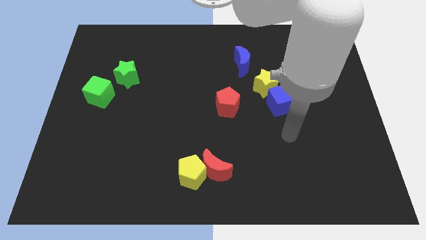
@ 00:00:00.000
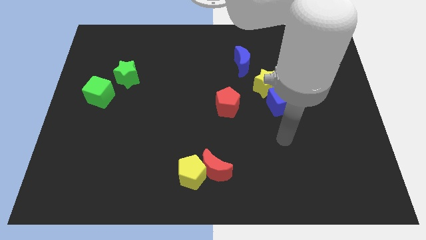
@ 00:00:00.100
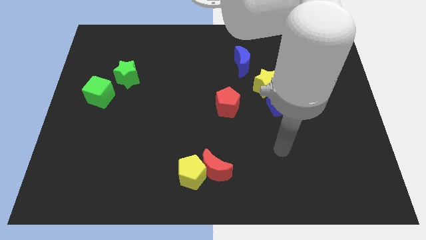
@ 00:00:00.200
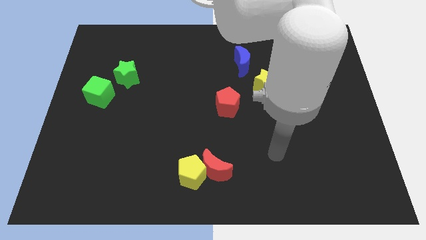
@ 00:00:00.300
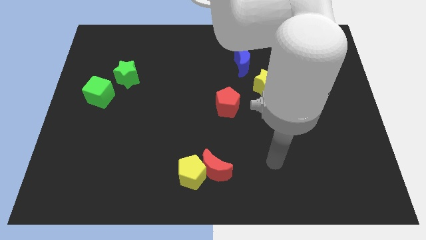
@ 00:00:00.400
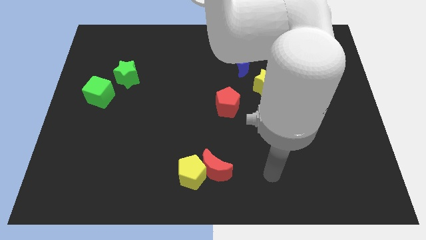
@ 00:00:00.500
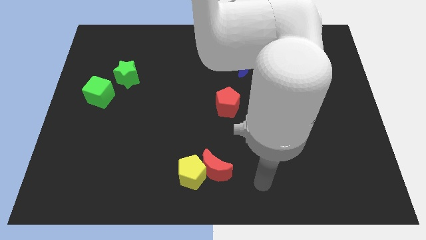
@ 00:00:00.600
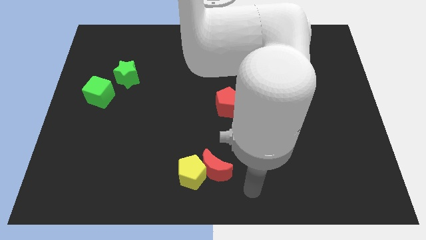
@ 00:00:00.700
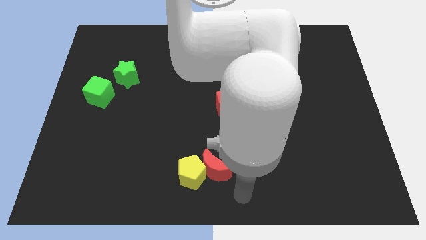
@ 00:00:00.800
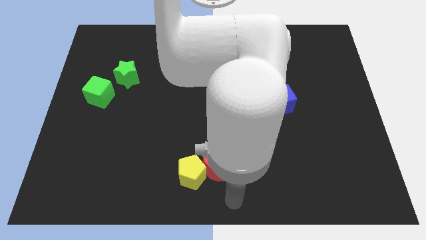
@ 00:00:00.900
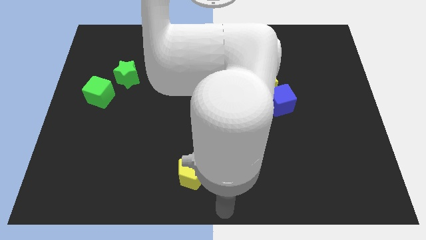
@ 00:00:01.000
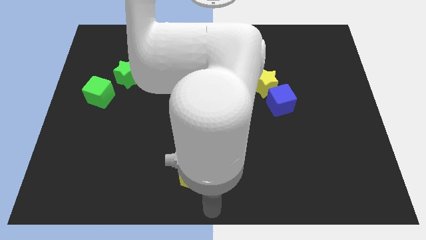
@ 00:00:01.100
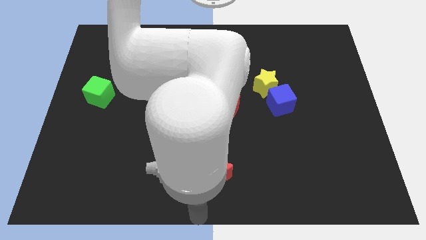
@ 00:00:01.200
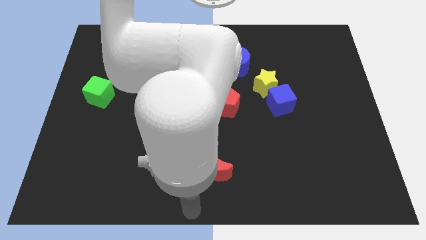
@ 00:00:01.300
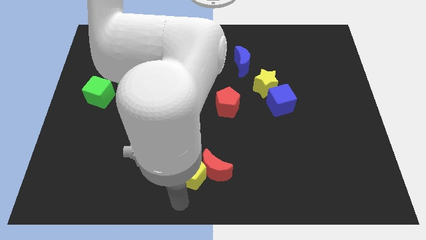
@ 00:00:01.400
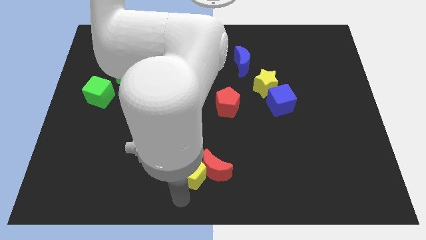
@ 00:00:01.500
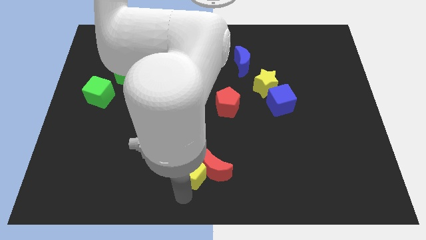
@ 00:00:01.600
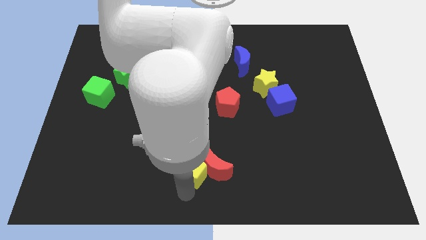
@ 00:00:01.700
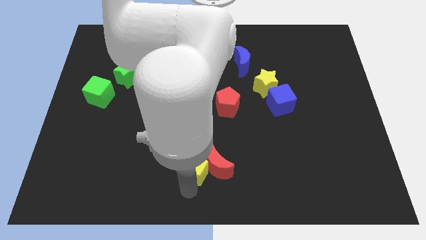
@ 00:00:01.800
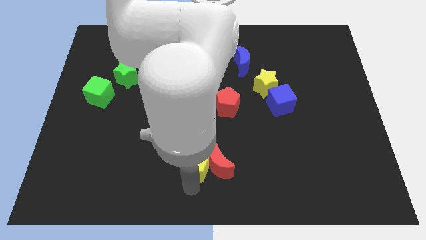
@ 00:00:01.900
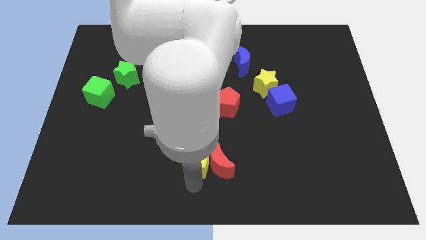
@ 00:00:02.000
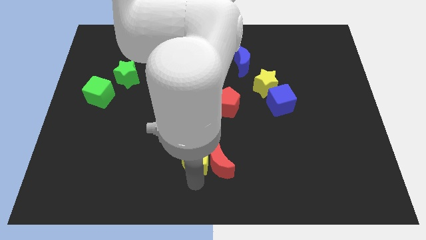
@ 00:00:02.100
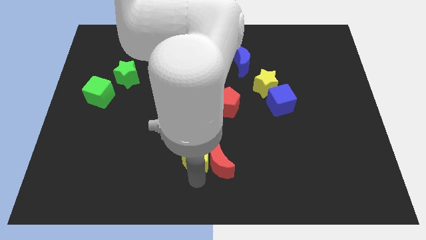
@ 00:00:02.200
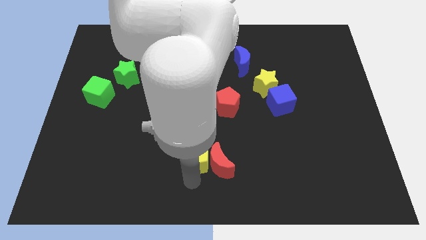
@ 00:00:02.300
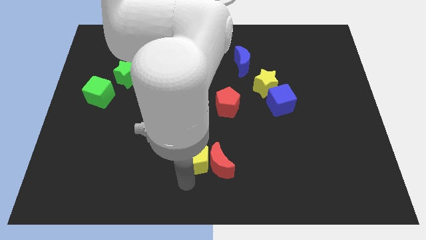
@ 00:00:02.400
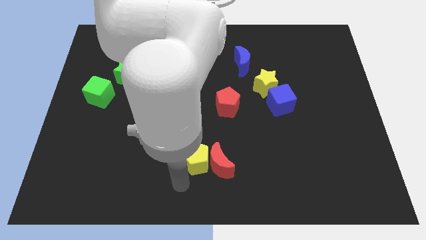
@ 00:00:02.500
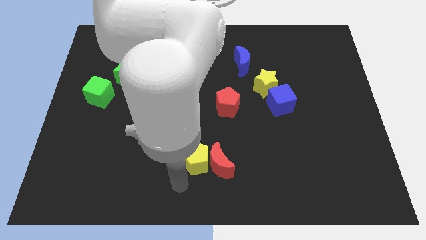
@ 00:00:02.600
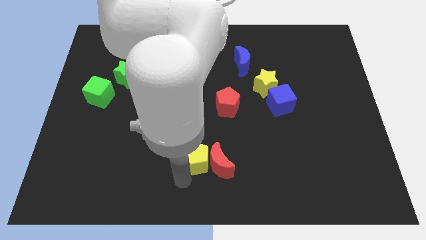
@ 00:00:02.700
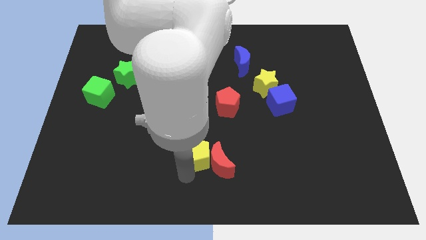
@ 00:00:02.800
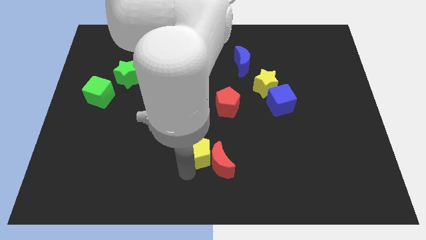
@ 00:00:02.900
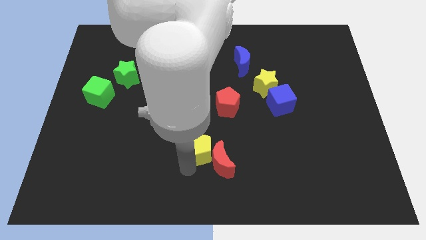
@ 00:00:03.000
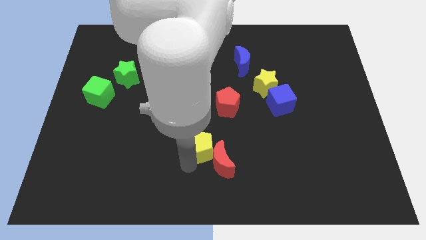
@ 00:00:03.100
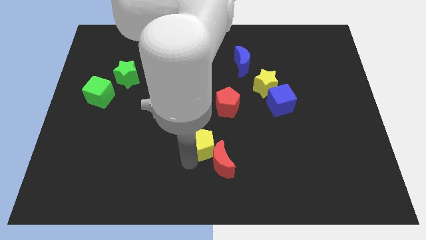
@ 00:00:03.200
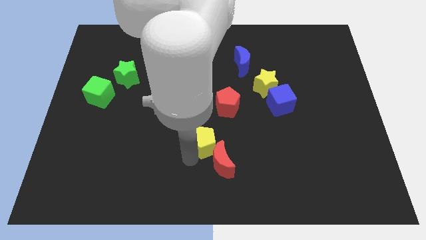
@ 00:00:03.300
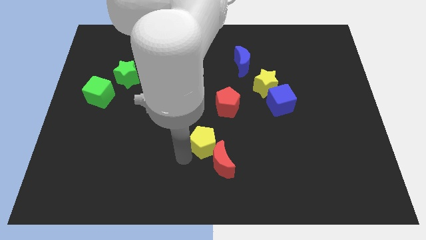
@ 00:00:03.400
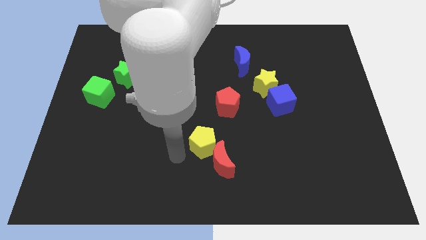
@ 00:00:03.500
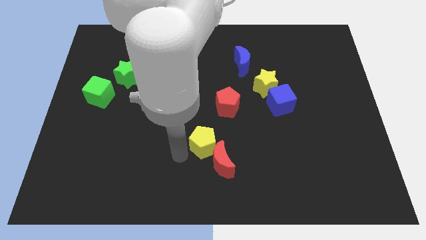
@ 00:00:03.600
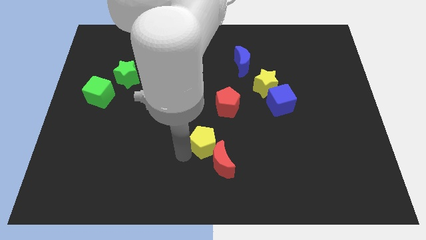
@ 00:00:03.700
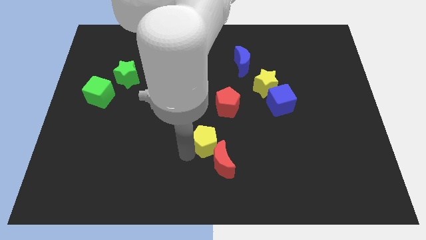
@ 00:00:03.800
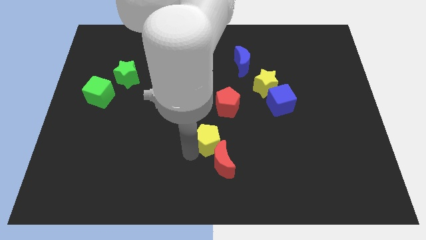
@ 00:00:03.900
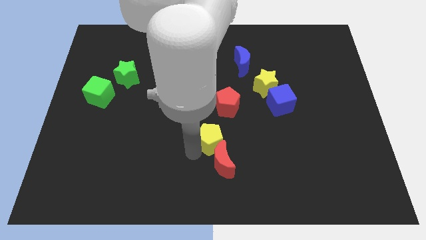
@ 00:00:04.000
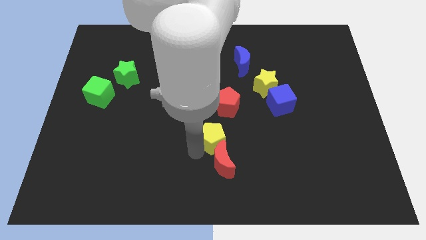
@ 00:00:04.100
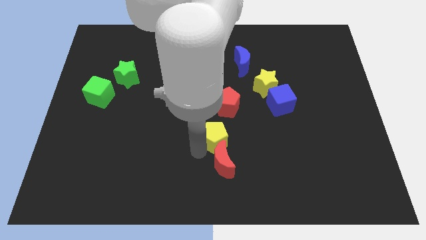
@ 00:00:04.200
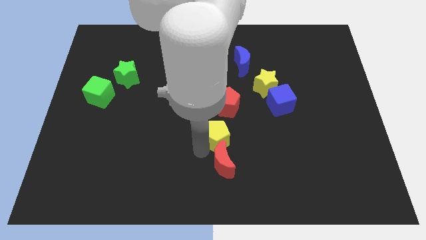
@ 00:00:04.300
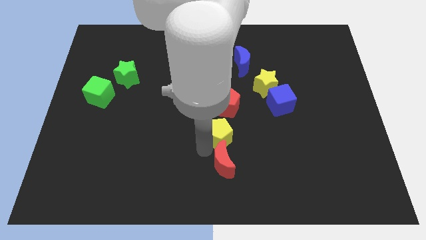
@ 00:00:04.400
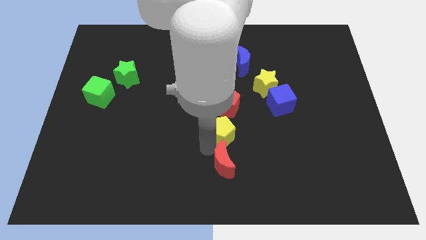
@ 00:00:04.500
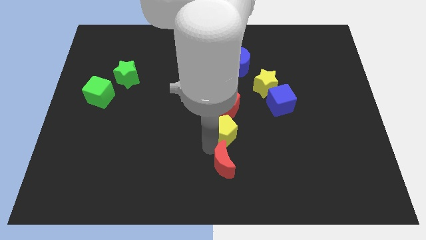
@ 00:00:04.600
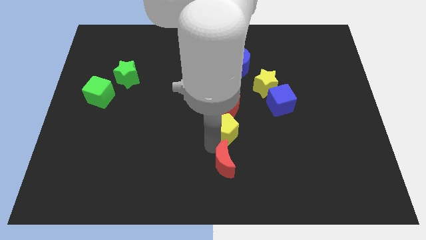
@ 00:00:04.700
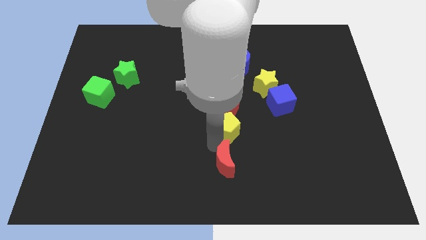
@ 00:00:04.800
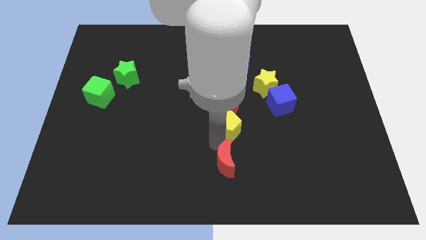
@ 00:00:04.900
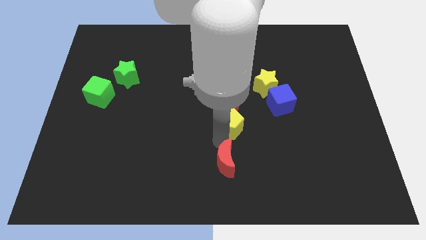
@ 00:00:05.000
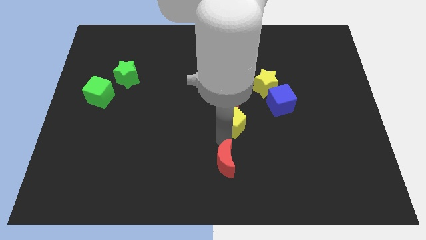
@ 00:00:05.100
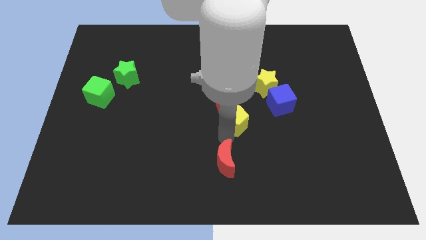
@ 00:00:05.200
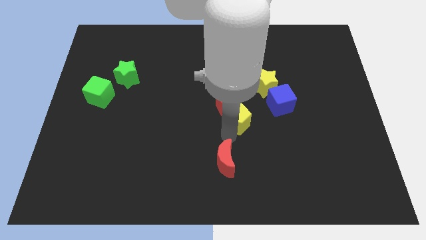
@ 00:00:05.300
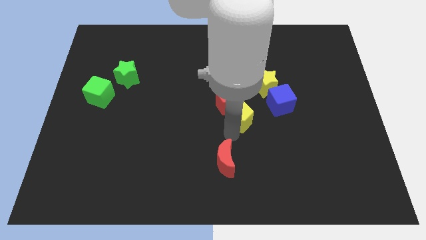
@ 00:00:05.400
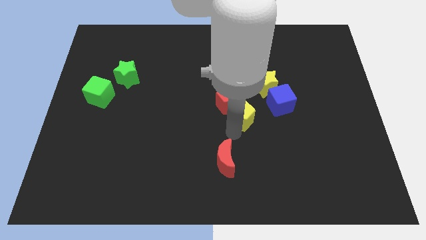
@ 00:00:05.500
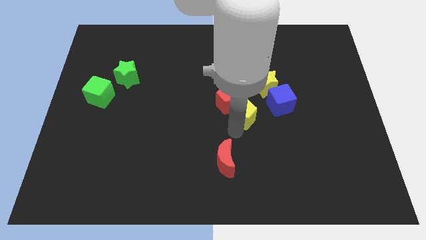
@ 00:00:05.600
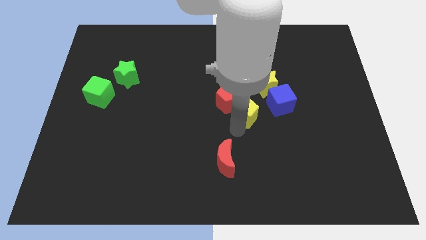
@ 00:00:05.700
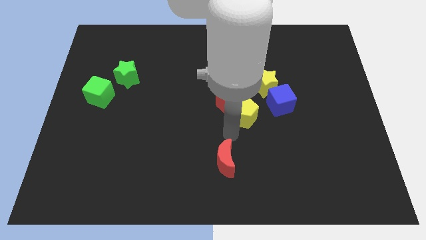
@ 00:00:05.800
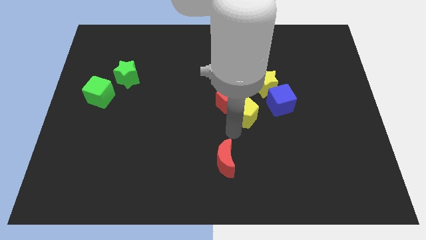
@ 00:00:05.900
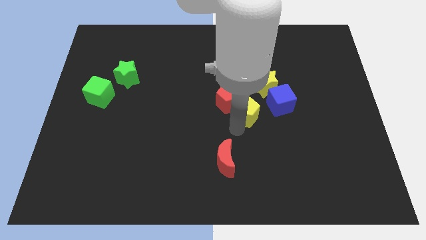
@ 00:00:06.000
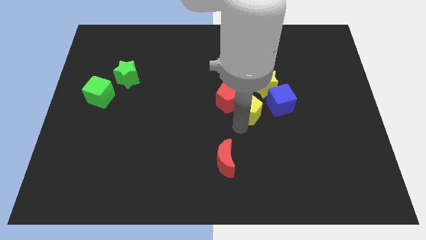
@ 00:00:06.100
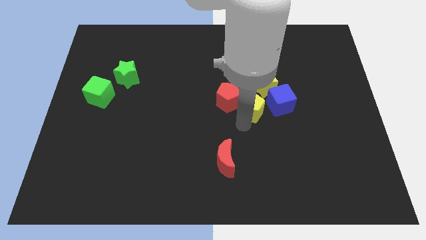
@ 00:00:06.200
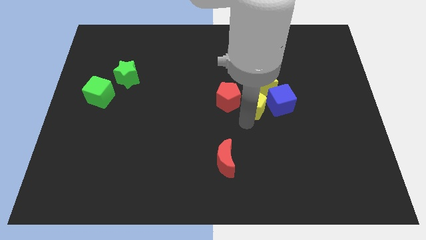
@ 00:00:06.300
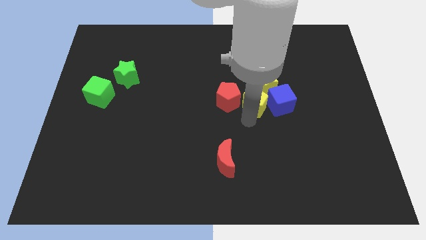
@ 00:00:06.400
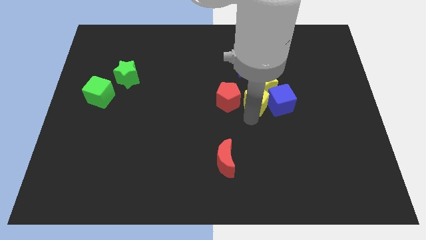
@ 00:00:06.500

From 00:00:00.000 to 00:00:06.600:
put the yellow pentagon next to the yellow star
